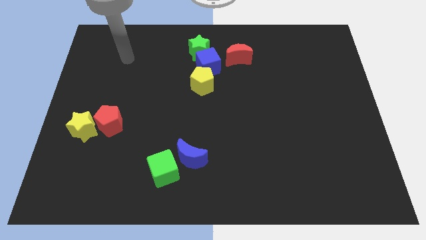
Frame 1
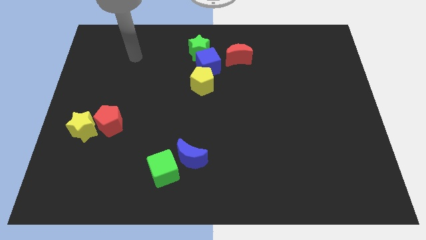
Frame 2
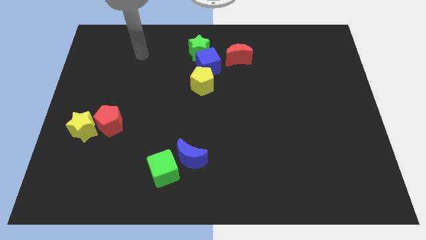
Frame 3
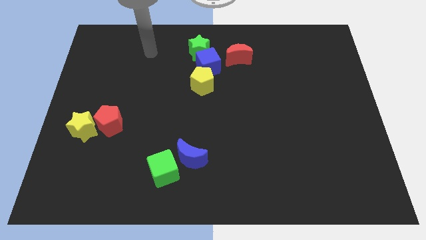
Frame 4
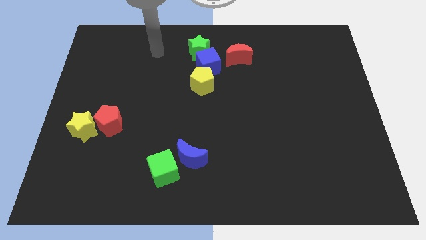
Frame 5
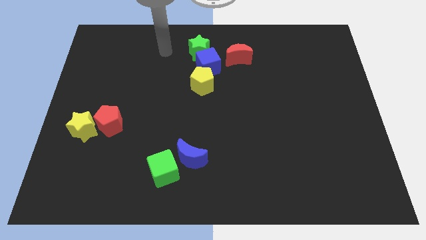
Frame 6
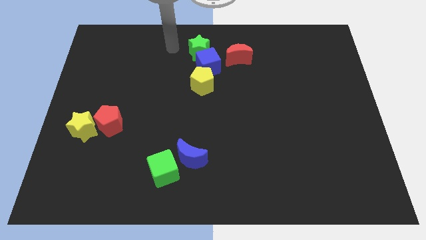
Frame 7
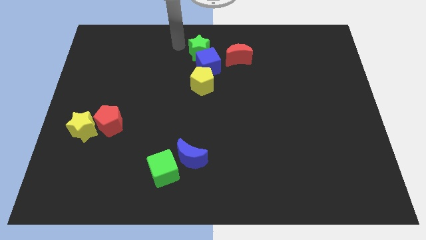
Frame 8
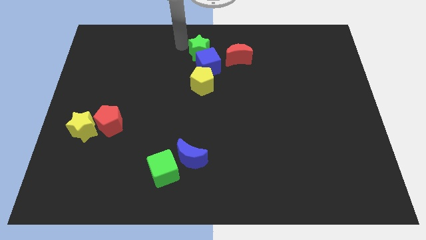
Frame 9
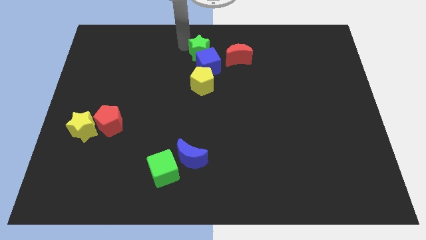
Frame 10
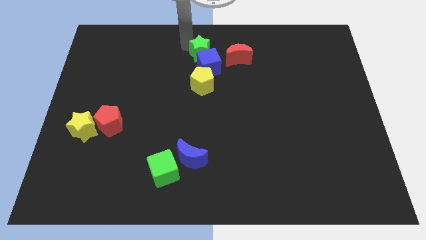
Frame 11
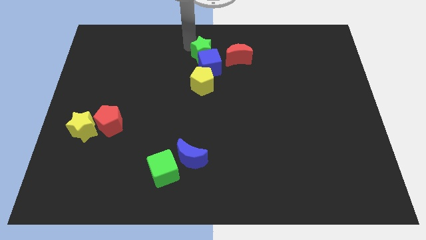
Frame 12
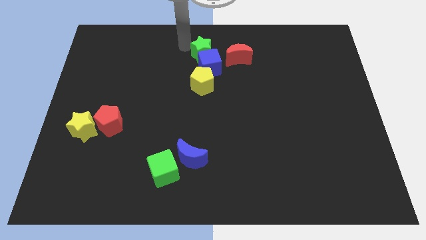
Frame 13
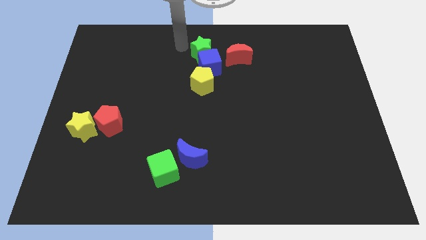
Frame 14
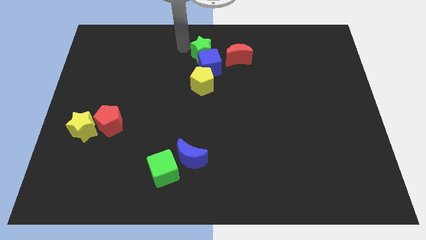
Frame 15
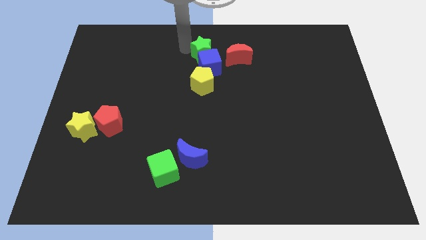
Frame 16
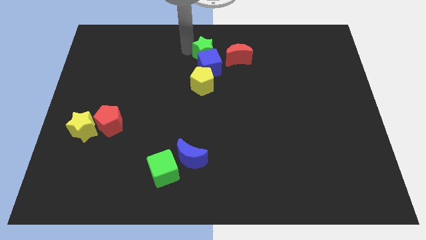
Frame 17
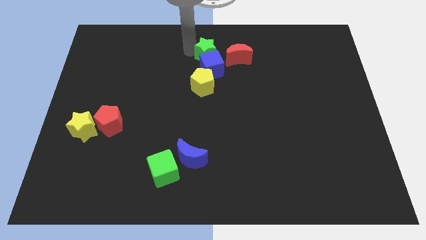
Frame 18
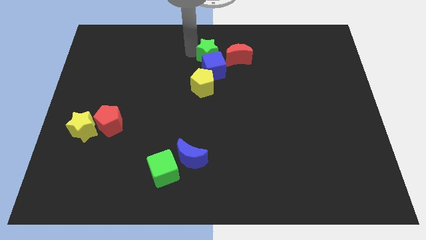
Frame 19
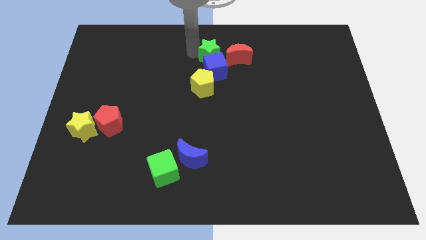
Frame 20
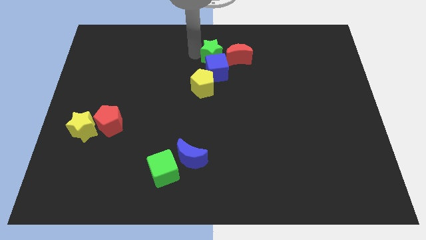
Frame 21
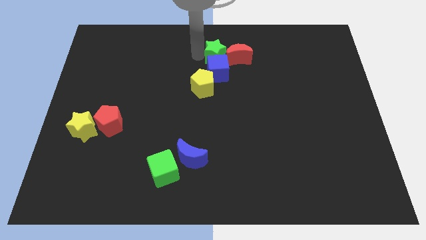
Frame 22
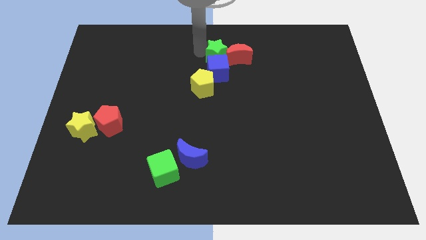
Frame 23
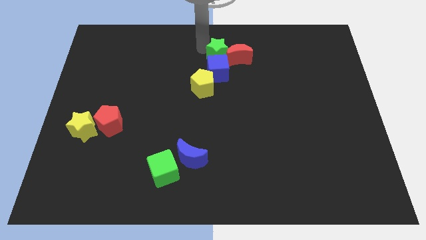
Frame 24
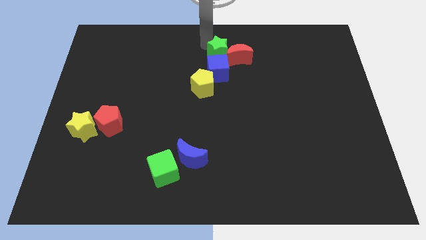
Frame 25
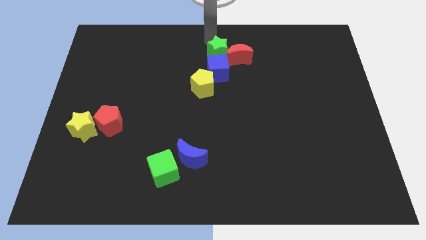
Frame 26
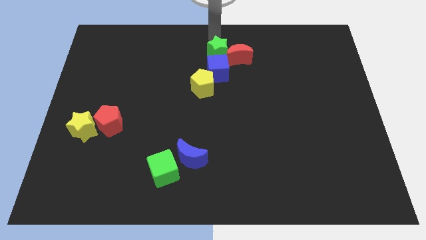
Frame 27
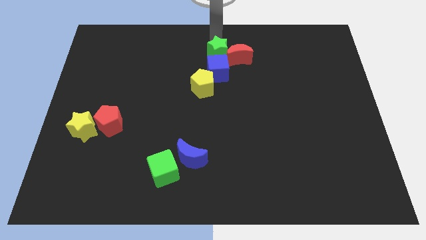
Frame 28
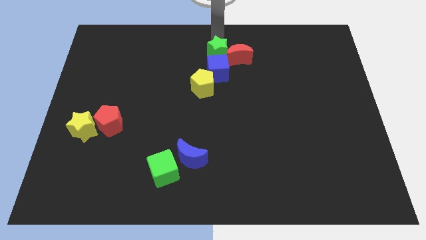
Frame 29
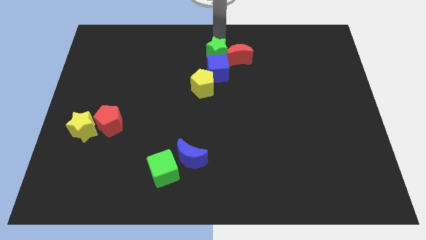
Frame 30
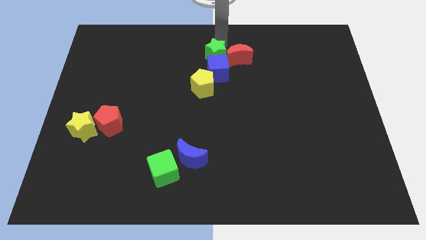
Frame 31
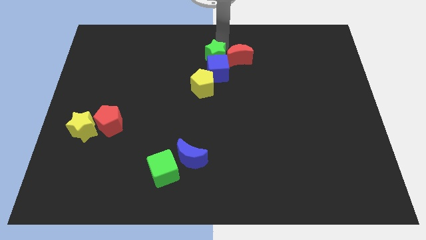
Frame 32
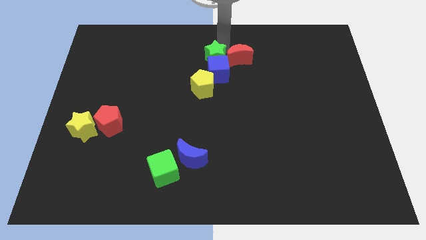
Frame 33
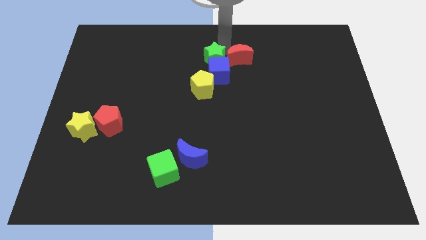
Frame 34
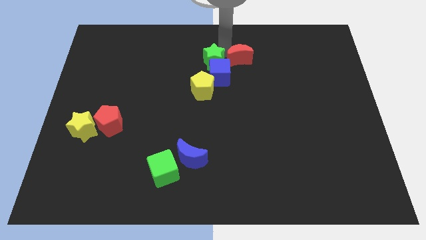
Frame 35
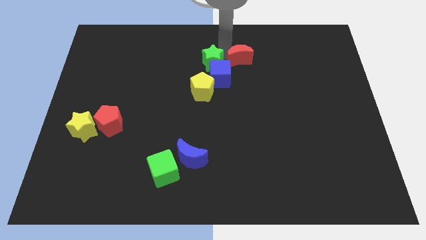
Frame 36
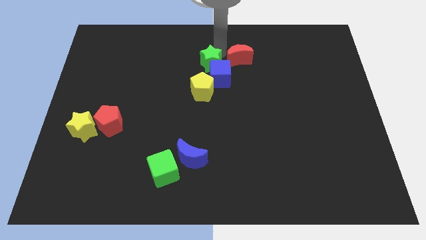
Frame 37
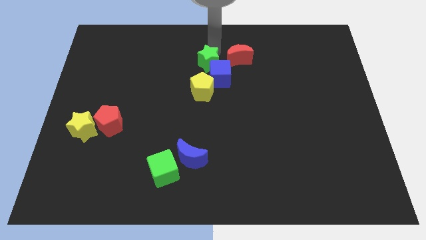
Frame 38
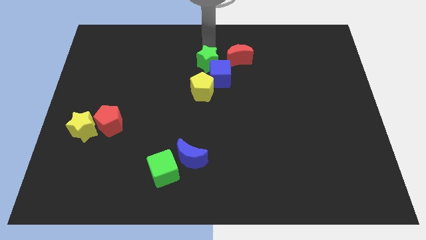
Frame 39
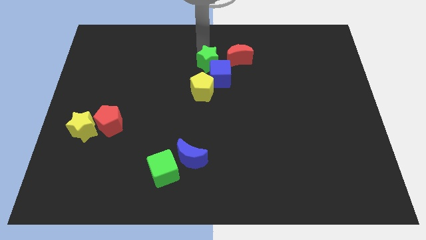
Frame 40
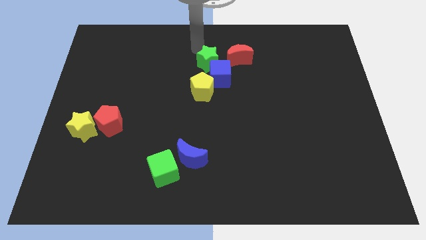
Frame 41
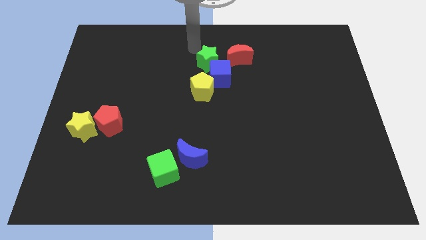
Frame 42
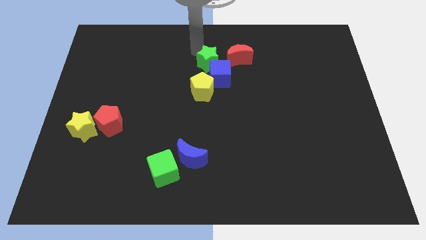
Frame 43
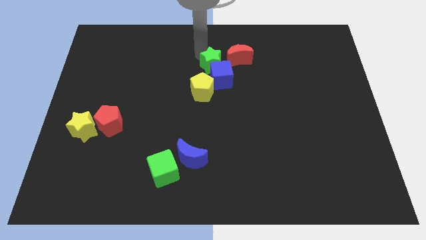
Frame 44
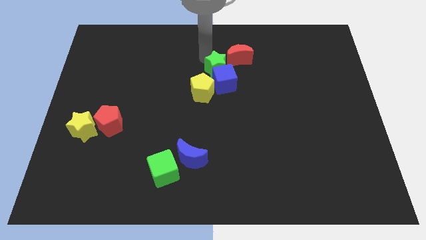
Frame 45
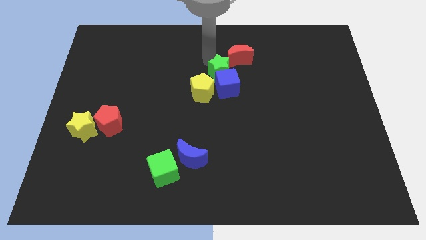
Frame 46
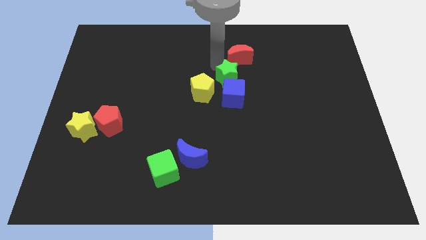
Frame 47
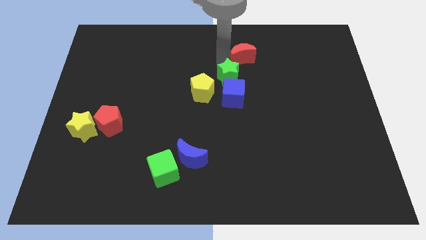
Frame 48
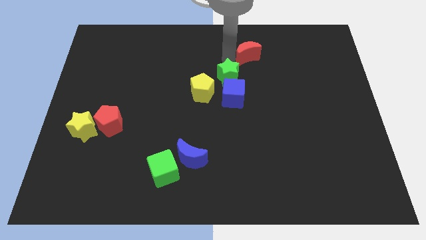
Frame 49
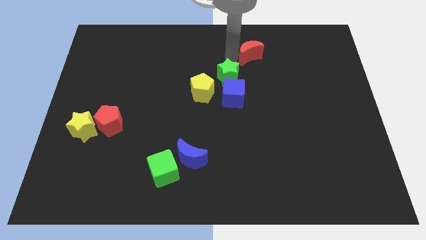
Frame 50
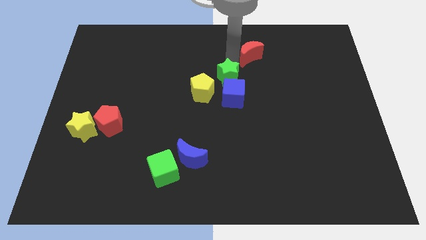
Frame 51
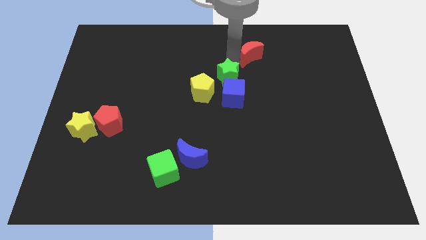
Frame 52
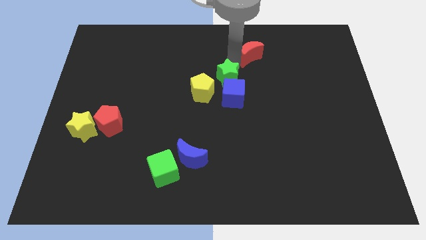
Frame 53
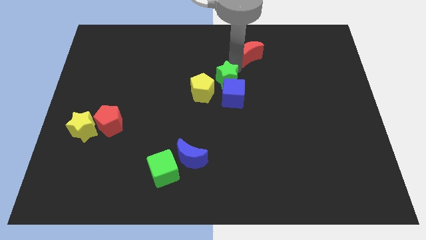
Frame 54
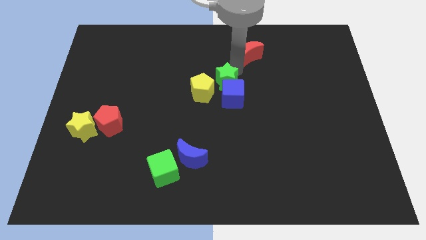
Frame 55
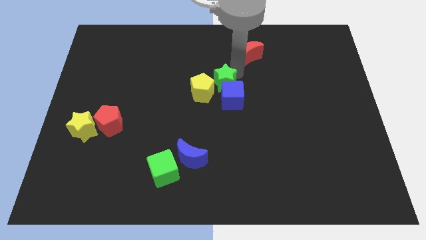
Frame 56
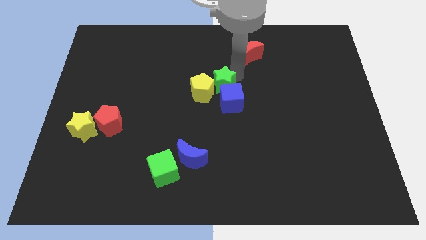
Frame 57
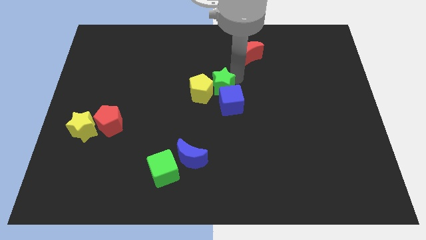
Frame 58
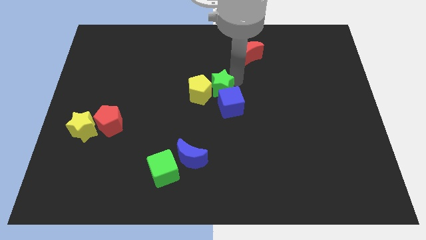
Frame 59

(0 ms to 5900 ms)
push the green star to the bottom right side of the yellow pentagon

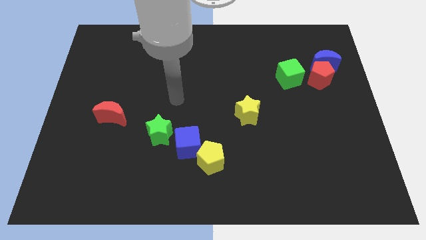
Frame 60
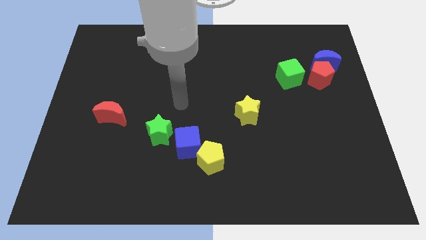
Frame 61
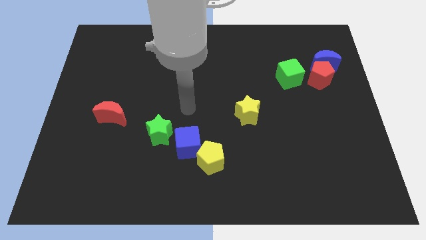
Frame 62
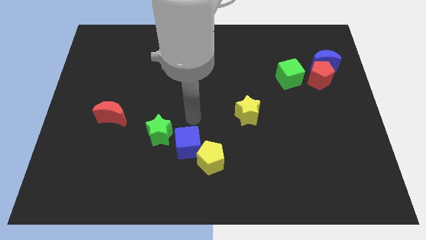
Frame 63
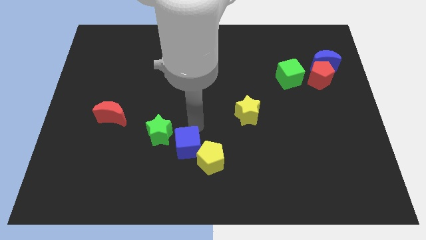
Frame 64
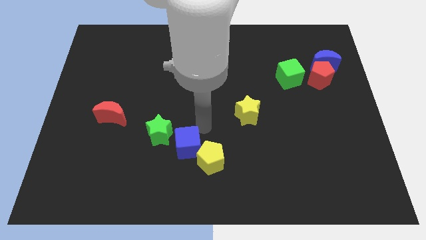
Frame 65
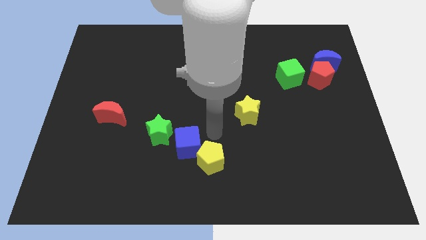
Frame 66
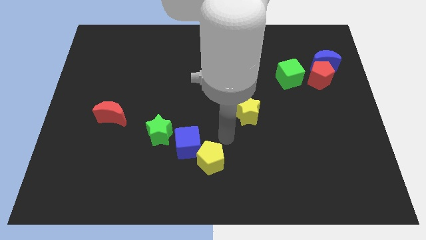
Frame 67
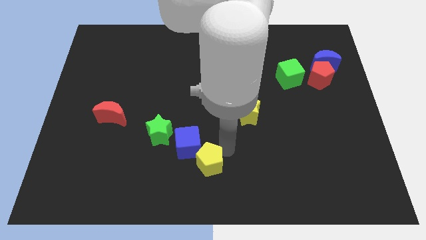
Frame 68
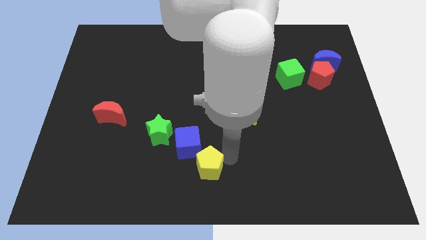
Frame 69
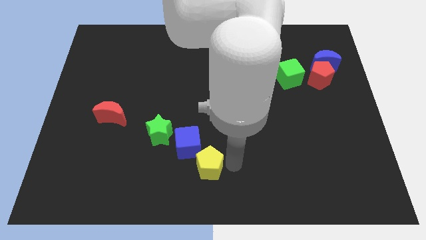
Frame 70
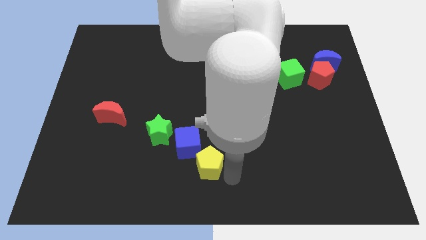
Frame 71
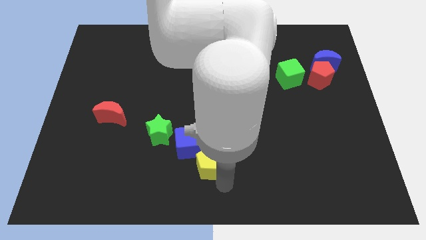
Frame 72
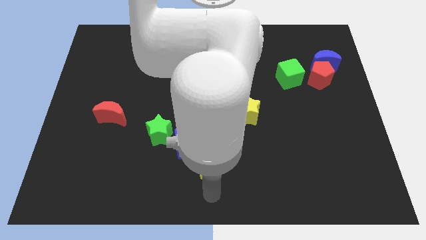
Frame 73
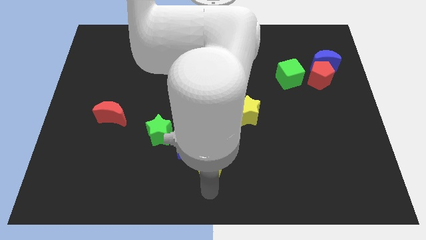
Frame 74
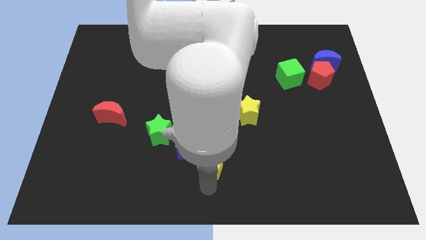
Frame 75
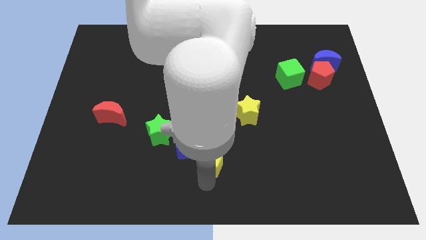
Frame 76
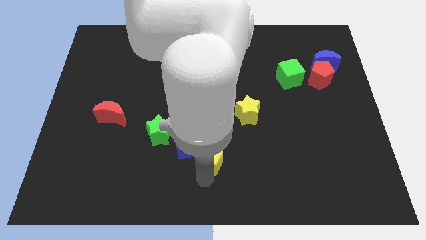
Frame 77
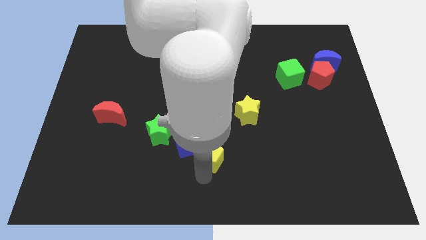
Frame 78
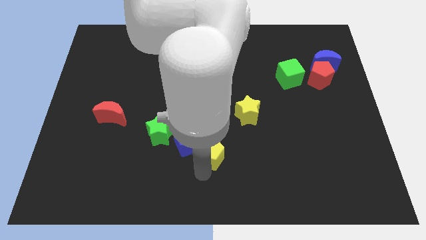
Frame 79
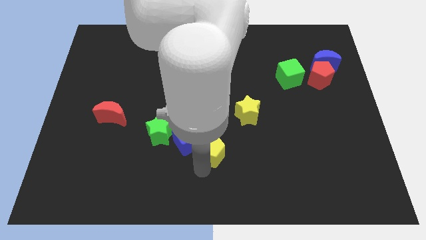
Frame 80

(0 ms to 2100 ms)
push the yellow pentagon right of the green star

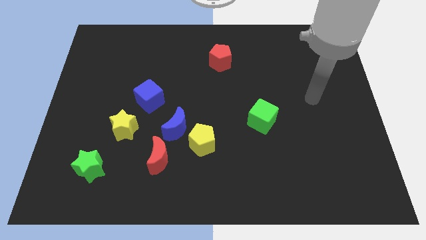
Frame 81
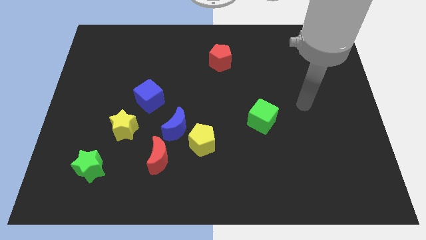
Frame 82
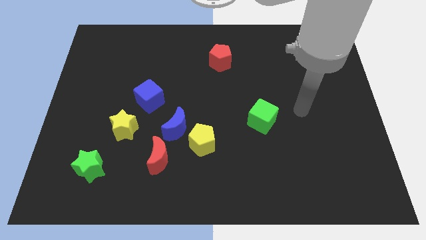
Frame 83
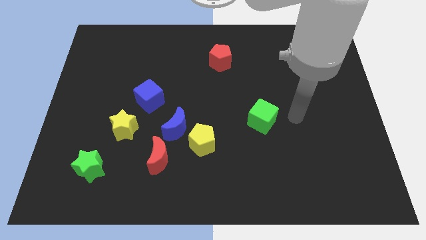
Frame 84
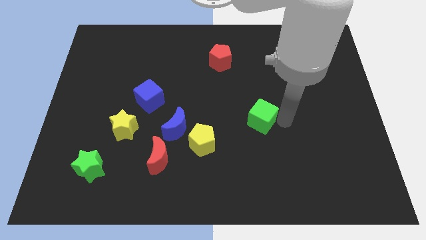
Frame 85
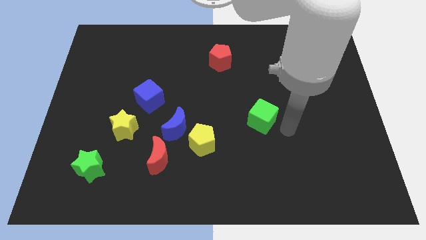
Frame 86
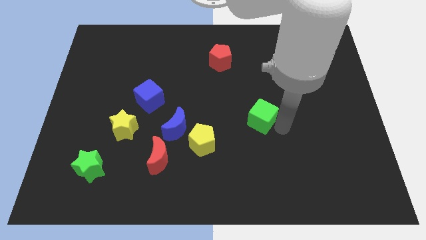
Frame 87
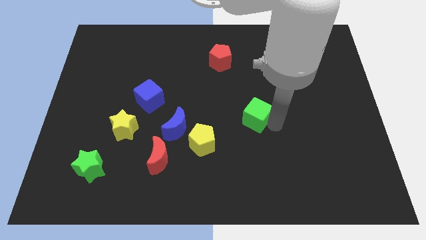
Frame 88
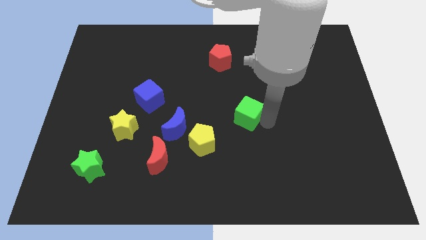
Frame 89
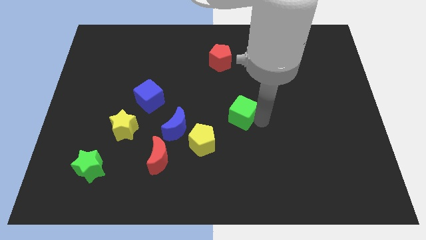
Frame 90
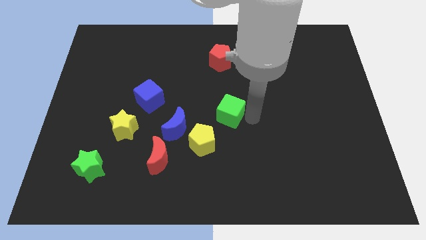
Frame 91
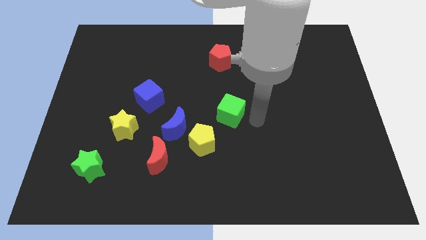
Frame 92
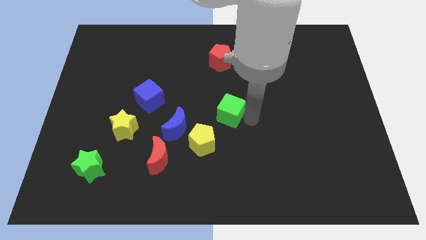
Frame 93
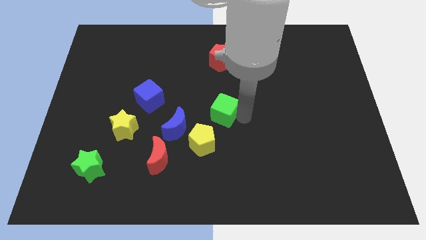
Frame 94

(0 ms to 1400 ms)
push the green cube to the top side of the yellow pentagon
